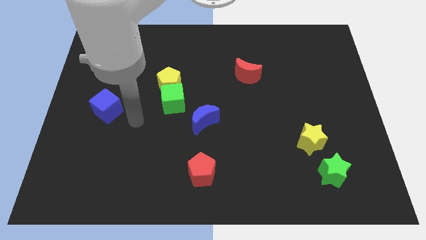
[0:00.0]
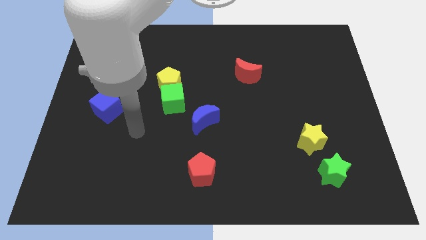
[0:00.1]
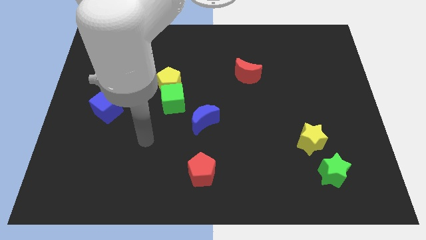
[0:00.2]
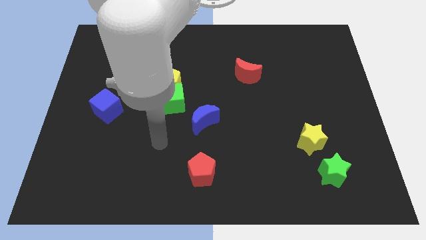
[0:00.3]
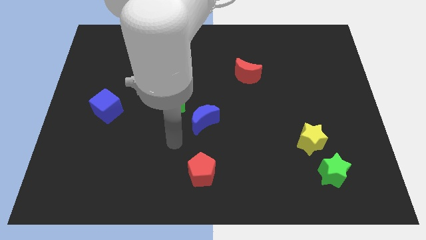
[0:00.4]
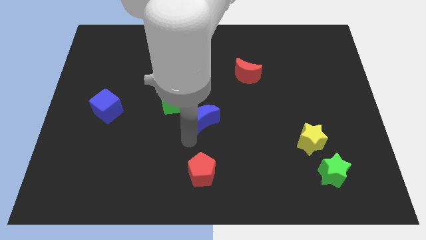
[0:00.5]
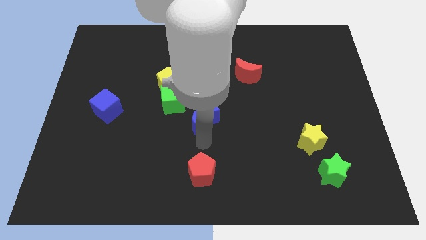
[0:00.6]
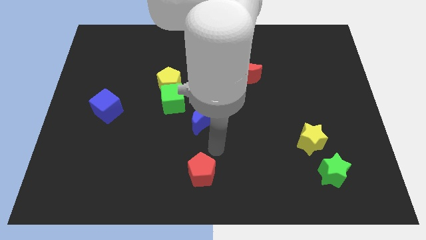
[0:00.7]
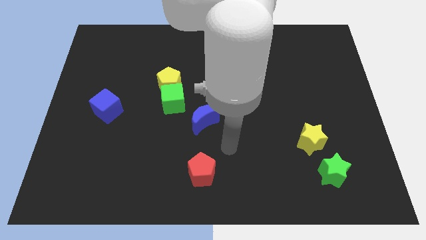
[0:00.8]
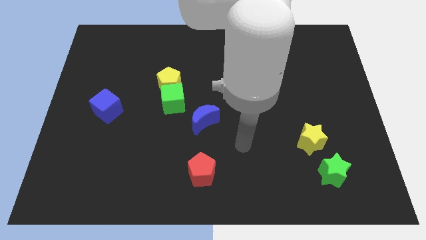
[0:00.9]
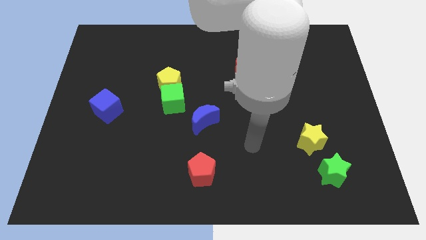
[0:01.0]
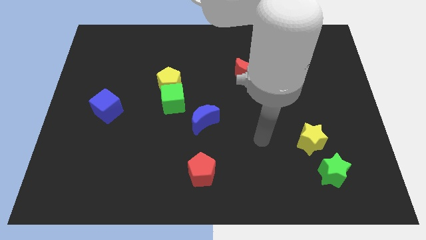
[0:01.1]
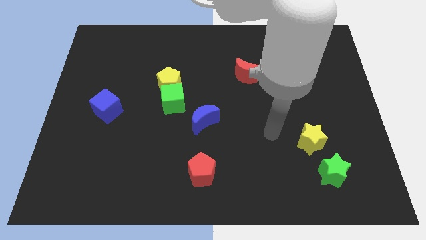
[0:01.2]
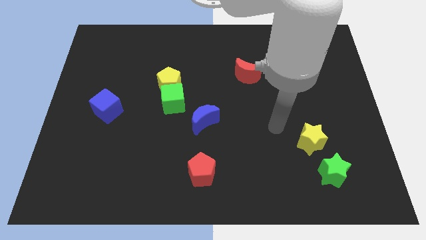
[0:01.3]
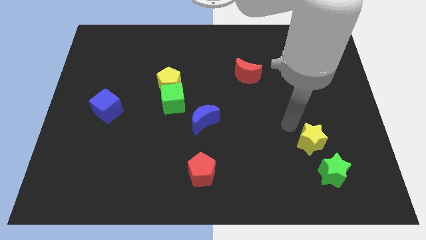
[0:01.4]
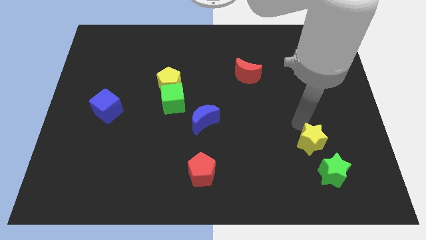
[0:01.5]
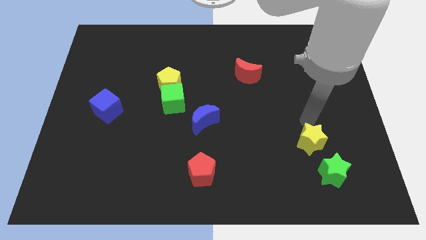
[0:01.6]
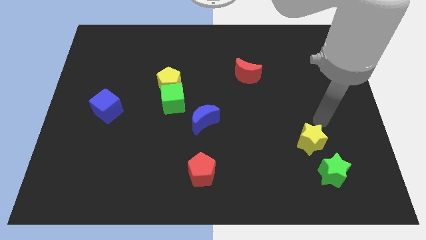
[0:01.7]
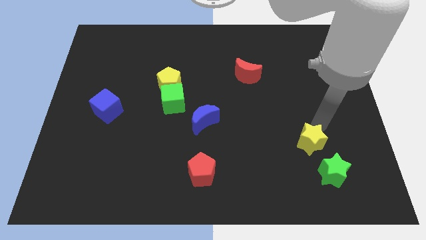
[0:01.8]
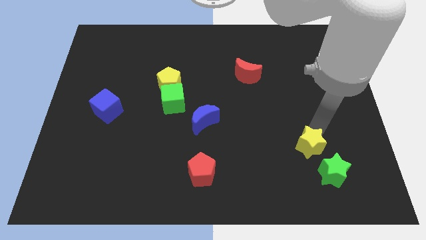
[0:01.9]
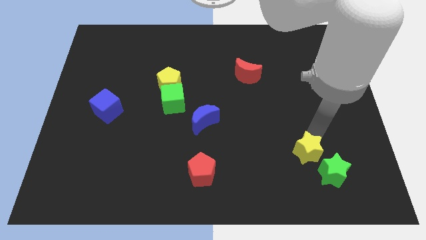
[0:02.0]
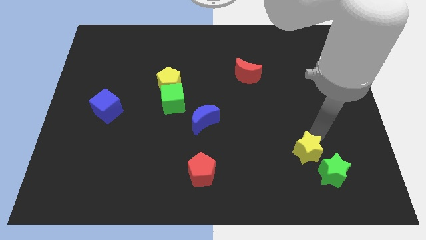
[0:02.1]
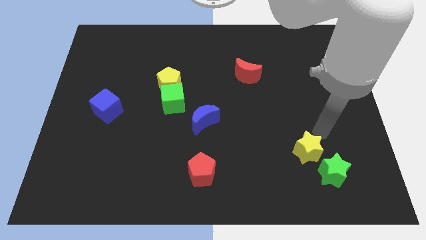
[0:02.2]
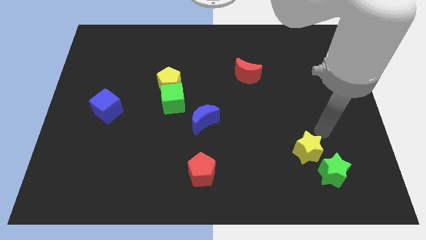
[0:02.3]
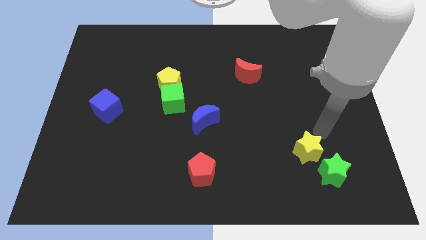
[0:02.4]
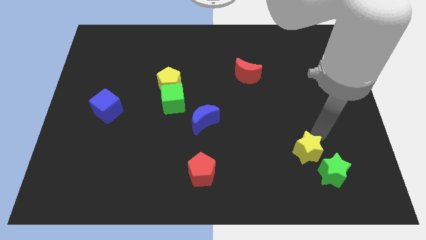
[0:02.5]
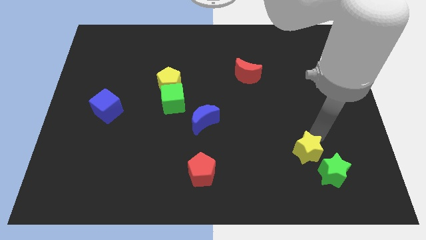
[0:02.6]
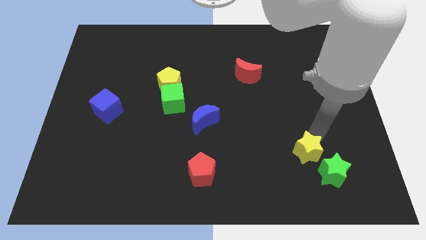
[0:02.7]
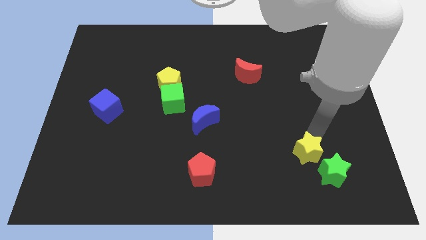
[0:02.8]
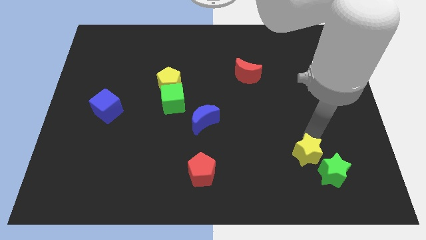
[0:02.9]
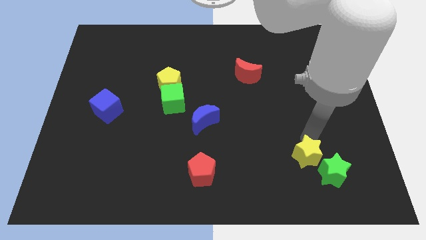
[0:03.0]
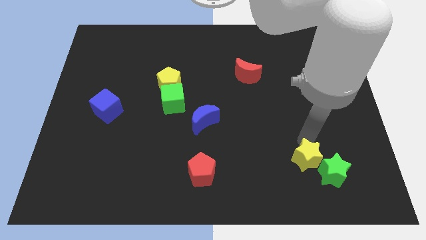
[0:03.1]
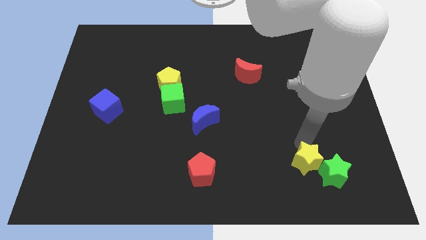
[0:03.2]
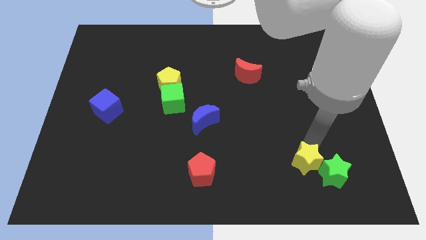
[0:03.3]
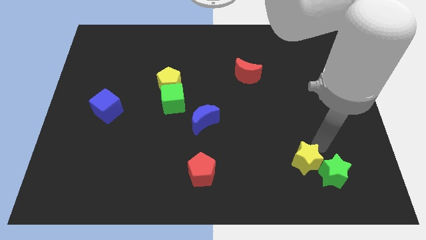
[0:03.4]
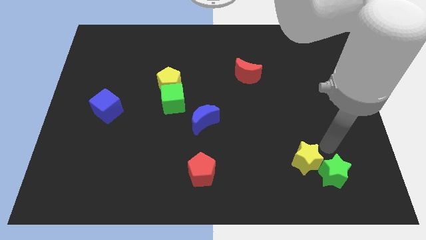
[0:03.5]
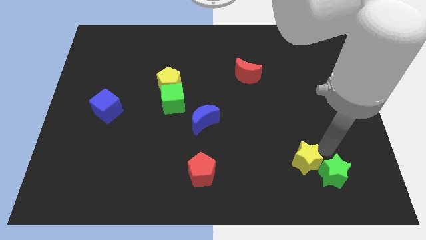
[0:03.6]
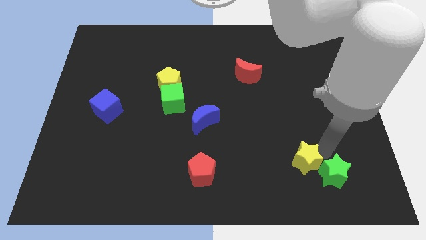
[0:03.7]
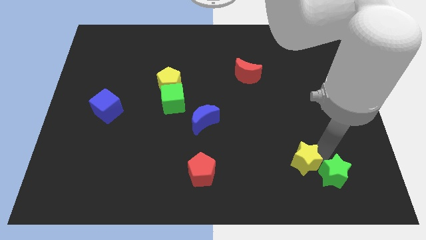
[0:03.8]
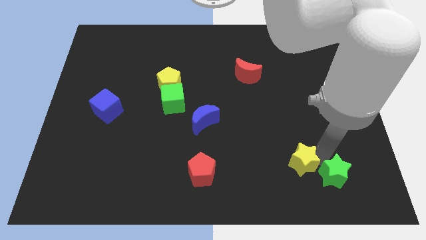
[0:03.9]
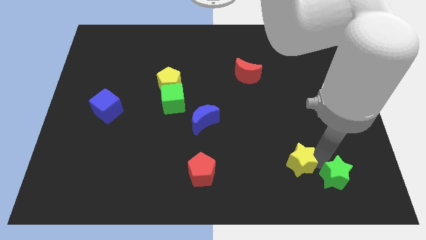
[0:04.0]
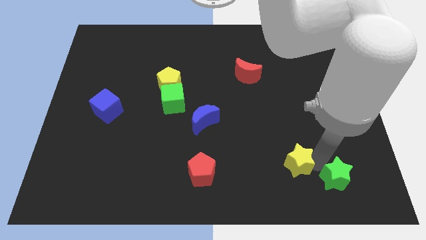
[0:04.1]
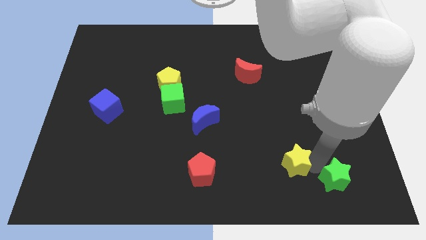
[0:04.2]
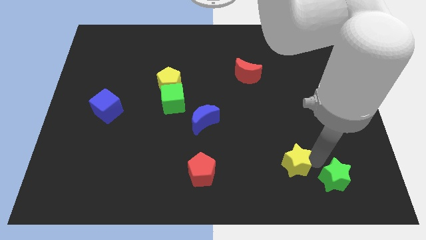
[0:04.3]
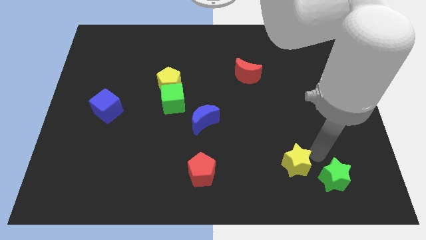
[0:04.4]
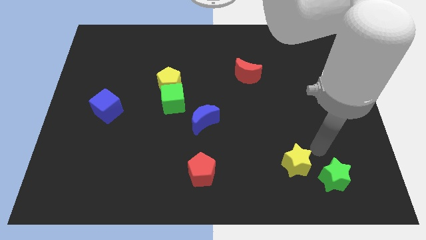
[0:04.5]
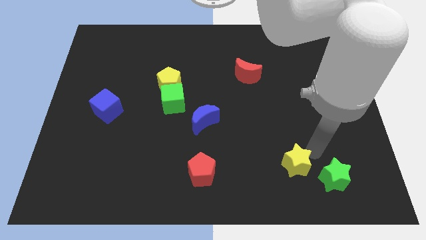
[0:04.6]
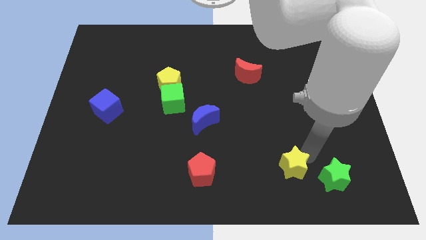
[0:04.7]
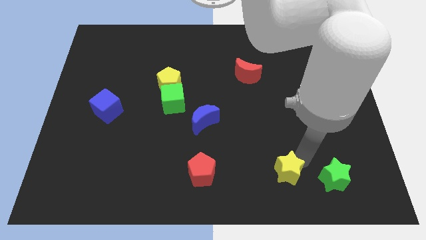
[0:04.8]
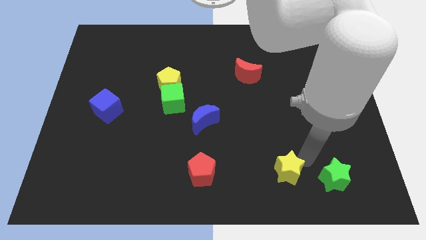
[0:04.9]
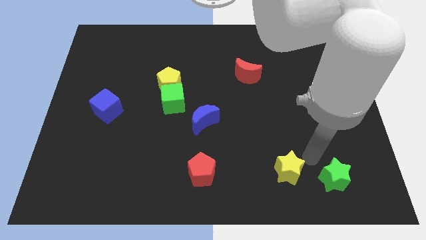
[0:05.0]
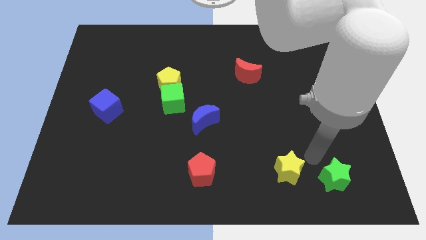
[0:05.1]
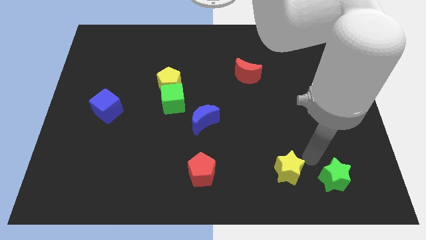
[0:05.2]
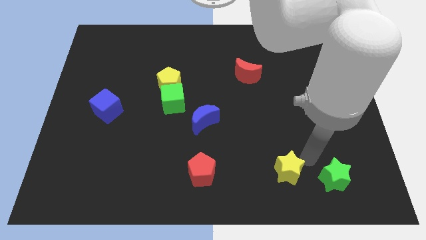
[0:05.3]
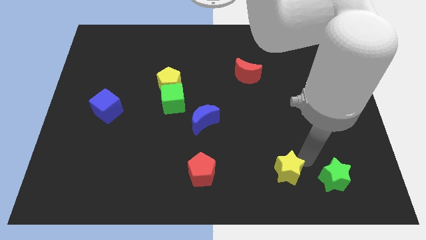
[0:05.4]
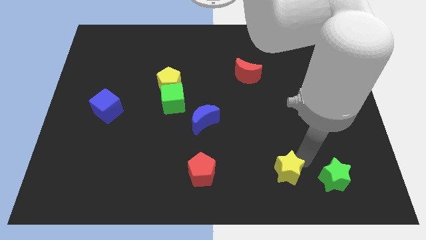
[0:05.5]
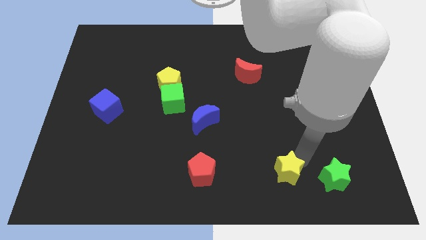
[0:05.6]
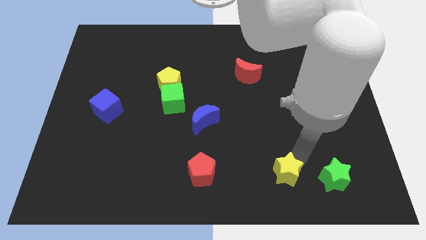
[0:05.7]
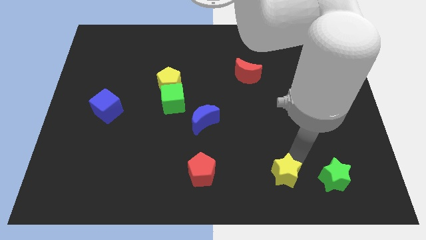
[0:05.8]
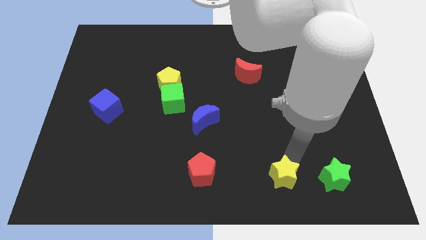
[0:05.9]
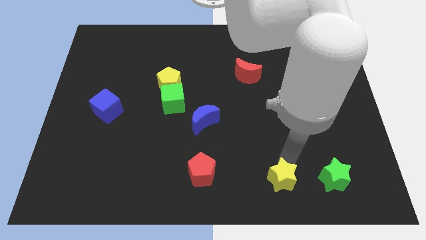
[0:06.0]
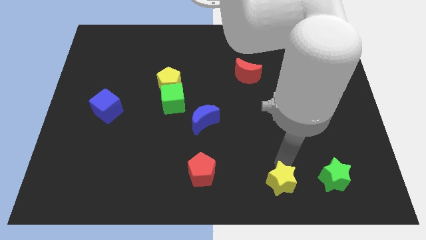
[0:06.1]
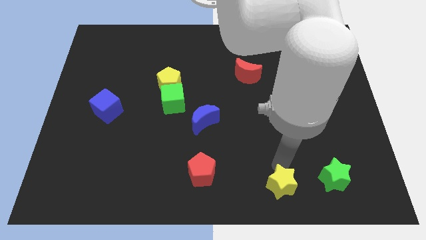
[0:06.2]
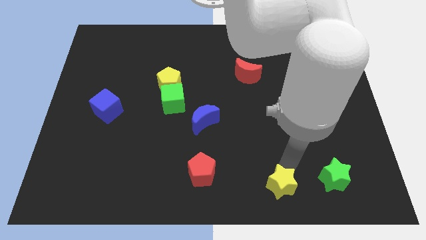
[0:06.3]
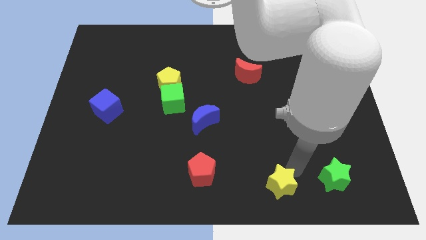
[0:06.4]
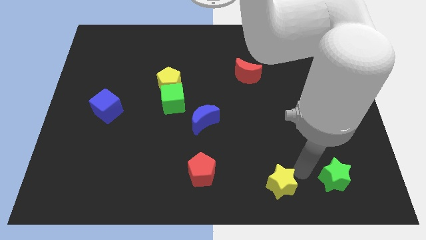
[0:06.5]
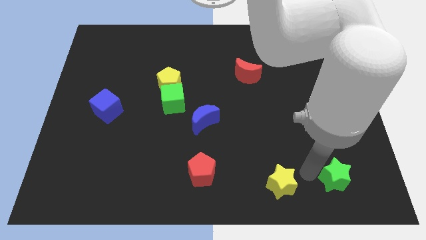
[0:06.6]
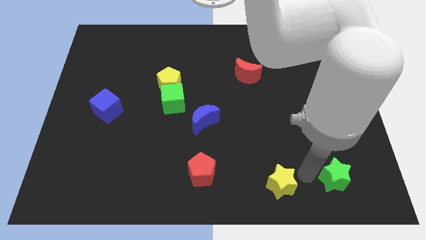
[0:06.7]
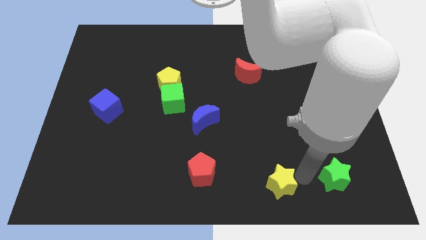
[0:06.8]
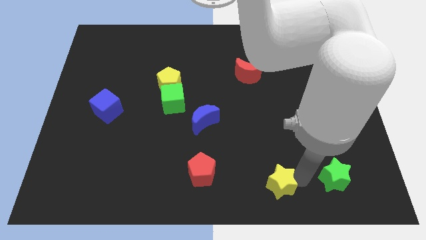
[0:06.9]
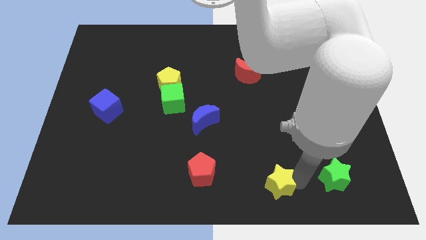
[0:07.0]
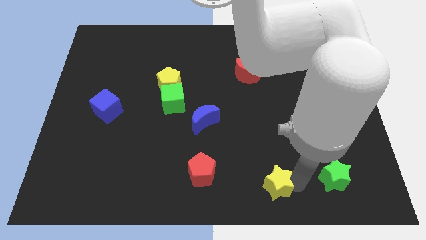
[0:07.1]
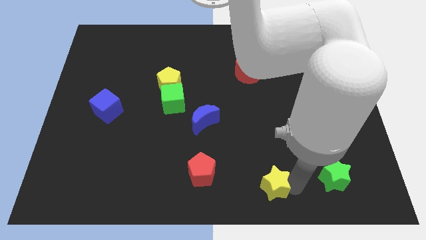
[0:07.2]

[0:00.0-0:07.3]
push the yellow star to the bottom
